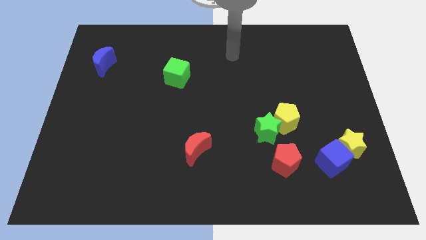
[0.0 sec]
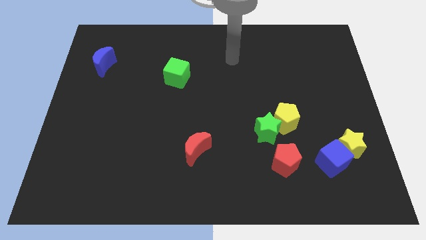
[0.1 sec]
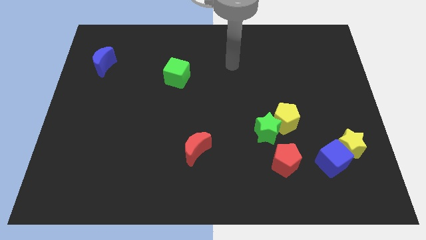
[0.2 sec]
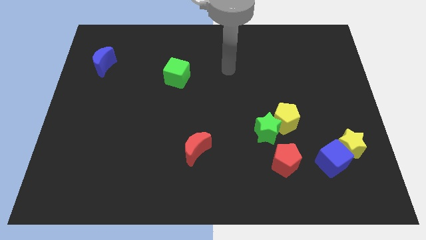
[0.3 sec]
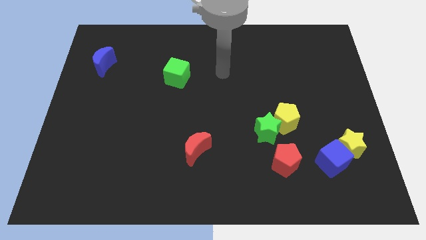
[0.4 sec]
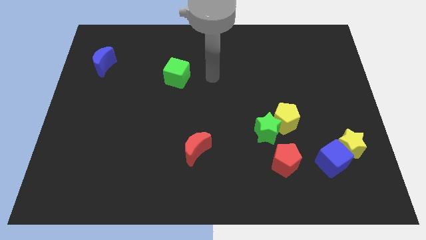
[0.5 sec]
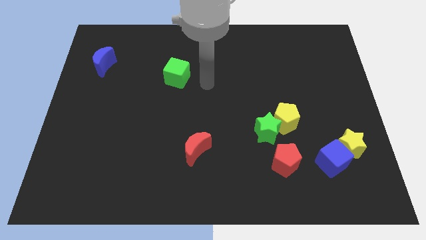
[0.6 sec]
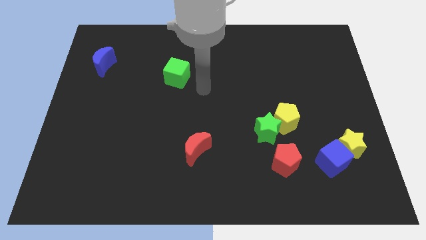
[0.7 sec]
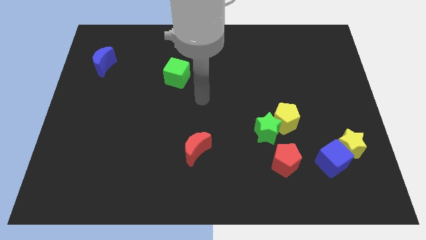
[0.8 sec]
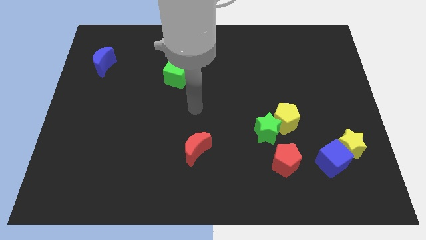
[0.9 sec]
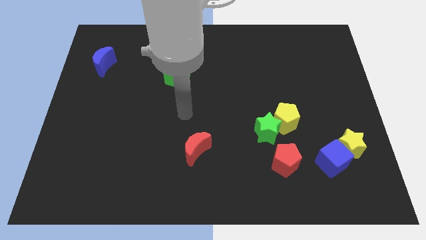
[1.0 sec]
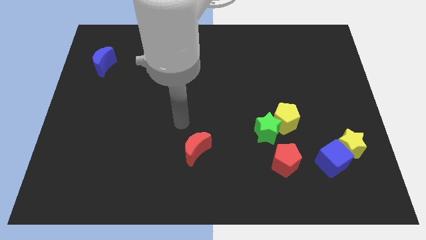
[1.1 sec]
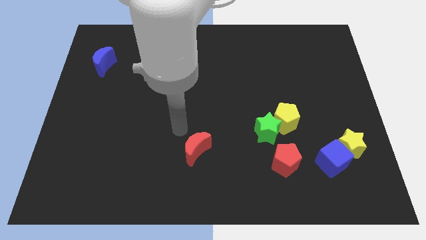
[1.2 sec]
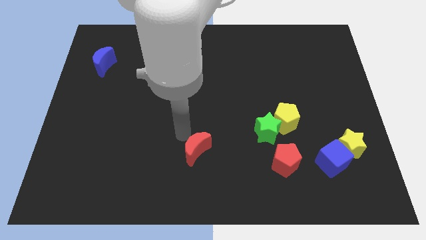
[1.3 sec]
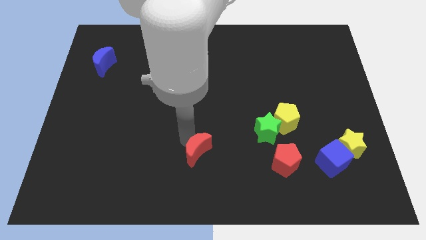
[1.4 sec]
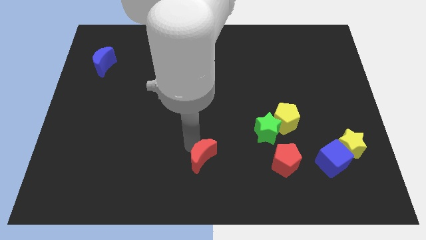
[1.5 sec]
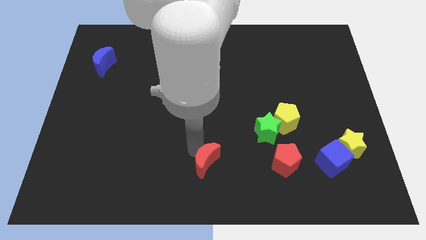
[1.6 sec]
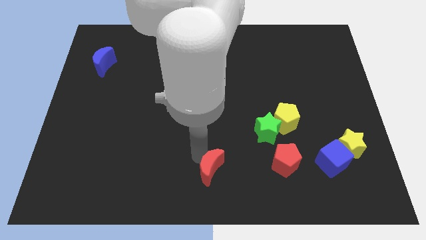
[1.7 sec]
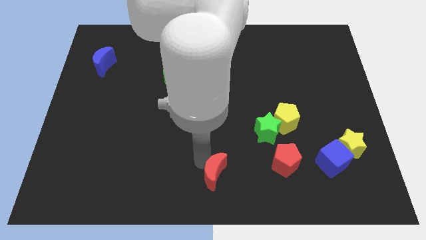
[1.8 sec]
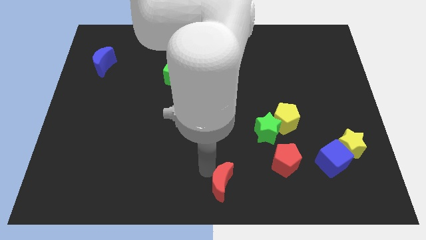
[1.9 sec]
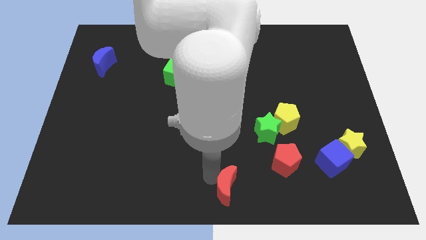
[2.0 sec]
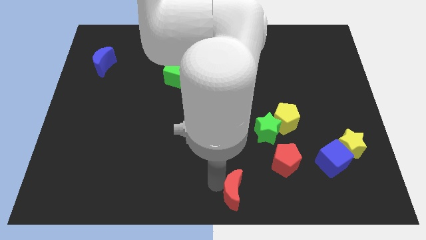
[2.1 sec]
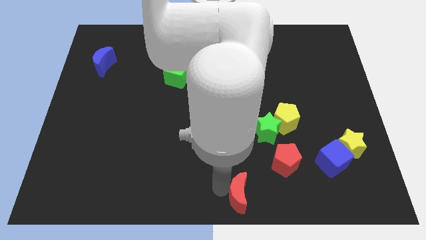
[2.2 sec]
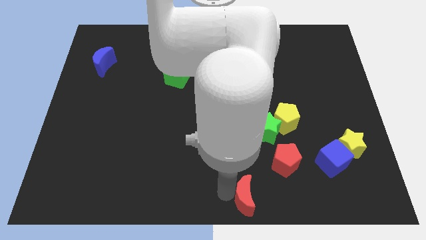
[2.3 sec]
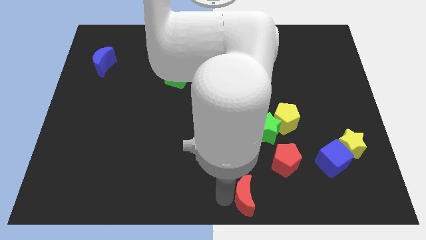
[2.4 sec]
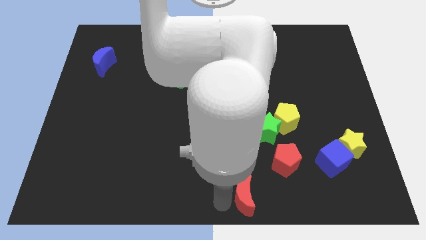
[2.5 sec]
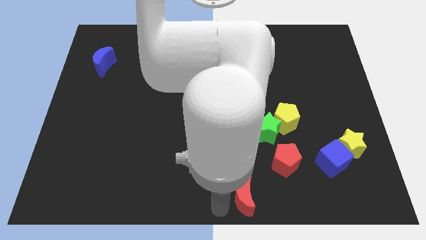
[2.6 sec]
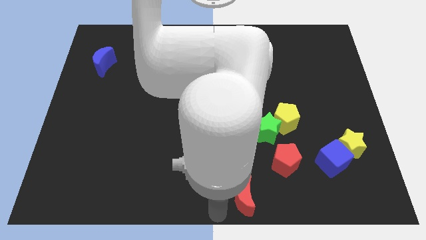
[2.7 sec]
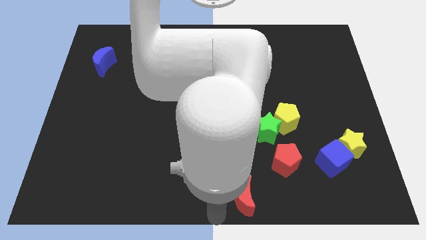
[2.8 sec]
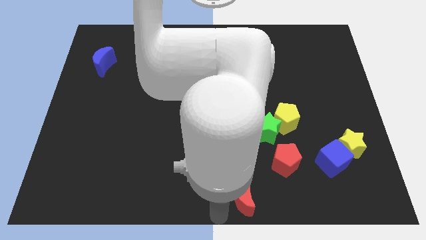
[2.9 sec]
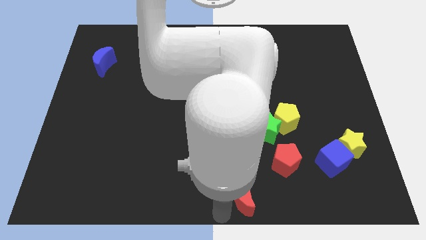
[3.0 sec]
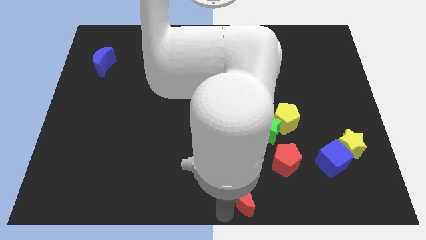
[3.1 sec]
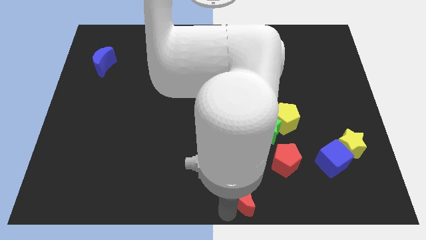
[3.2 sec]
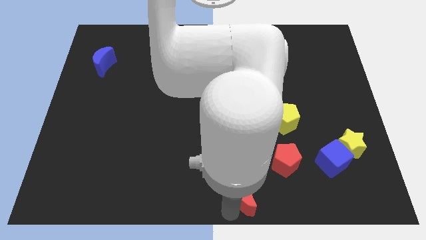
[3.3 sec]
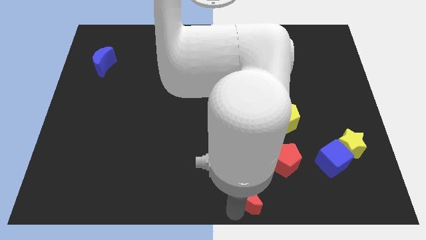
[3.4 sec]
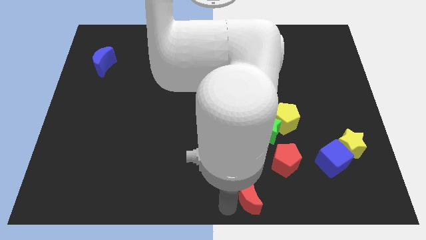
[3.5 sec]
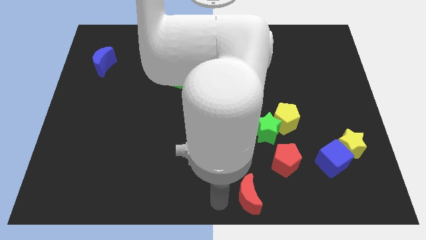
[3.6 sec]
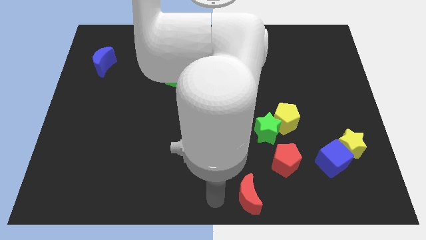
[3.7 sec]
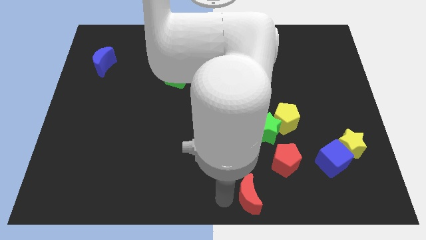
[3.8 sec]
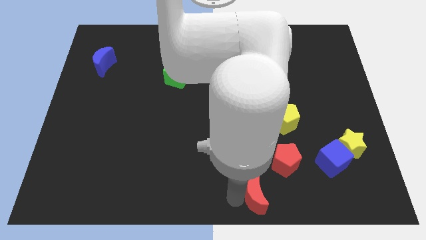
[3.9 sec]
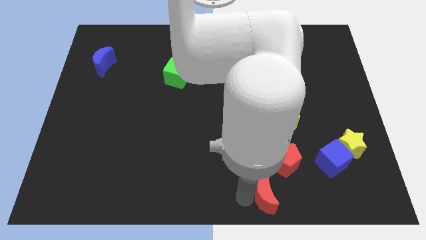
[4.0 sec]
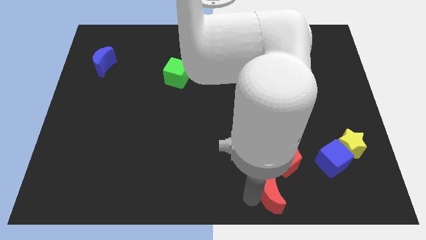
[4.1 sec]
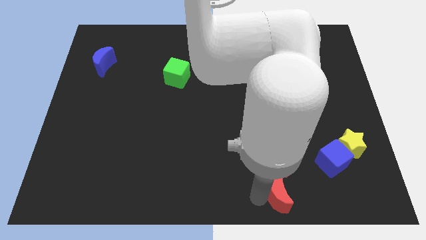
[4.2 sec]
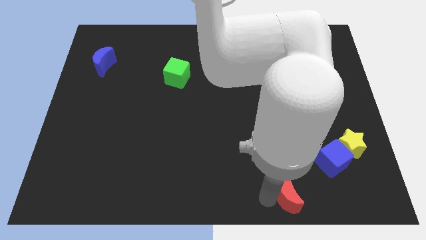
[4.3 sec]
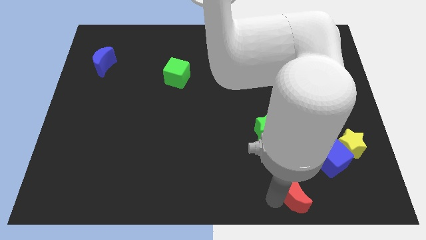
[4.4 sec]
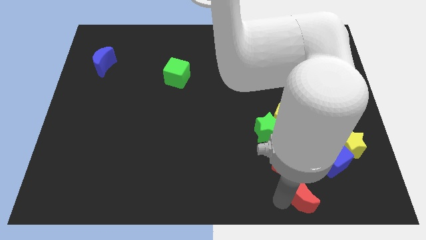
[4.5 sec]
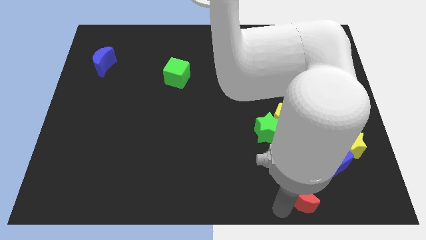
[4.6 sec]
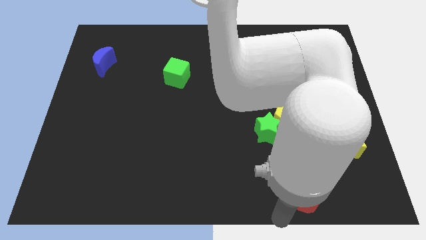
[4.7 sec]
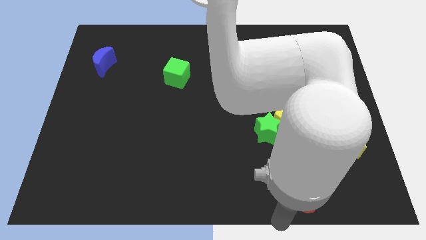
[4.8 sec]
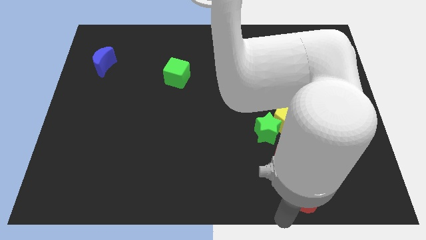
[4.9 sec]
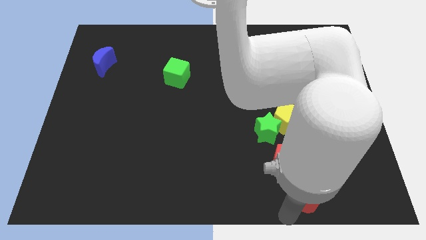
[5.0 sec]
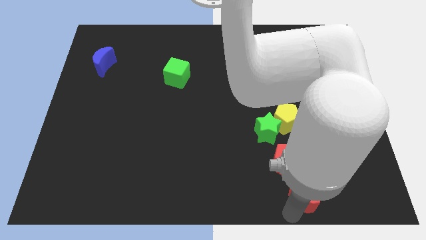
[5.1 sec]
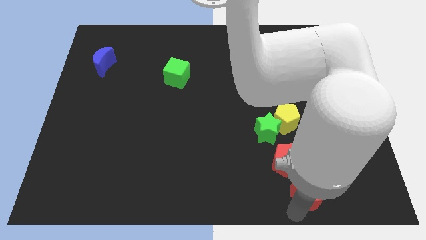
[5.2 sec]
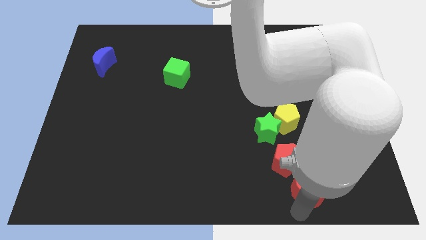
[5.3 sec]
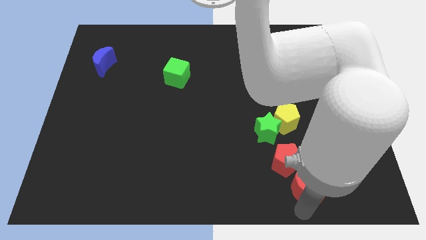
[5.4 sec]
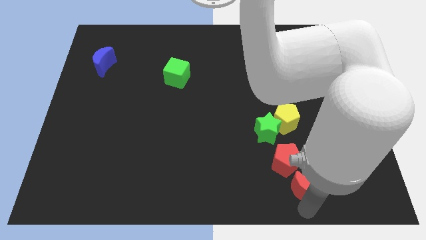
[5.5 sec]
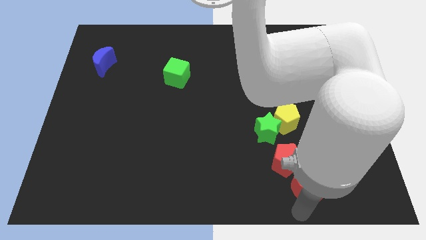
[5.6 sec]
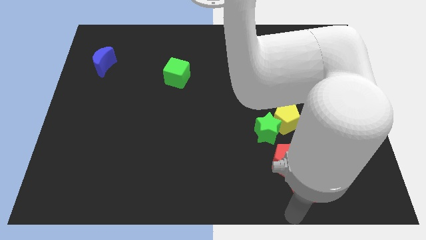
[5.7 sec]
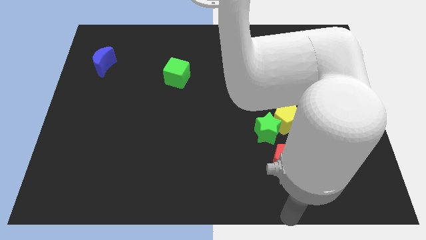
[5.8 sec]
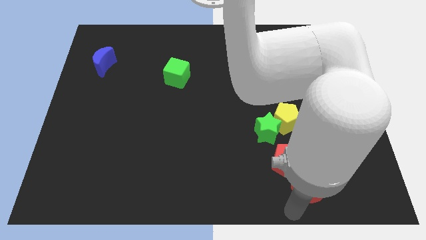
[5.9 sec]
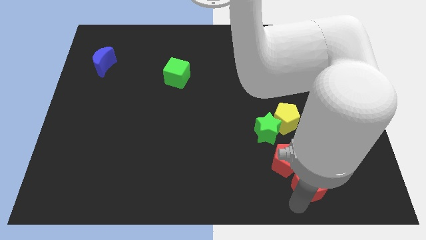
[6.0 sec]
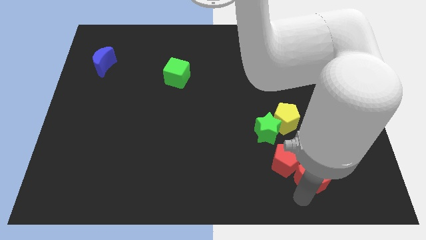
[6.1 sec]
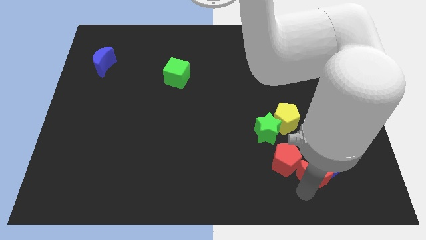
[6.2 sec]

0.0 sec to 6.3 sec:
put the red moon next to the blue cube
